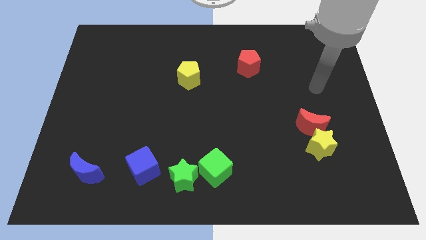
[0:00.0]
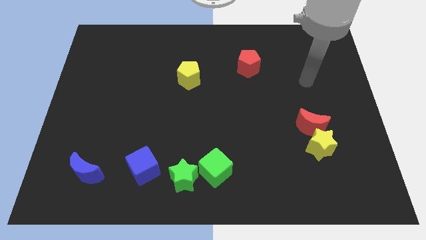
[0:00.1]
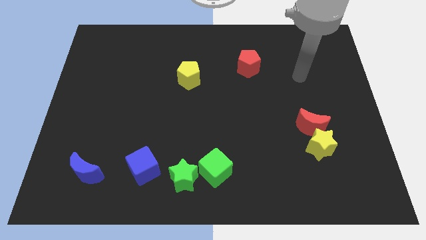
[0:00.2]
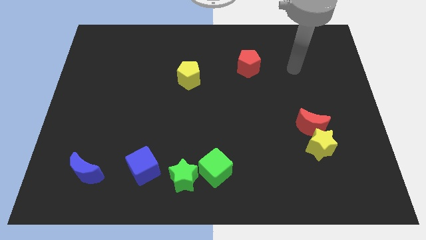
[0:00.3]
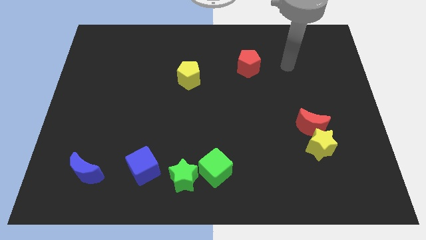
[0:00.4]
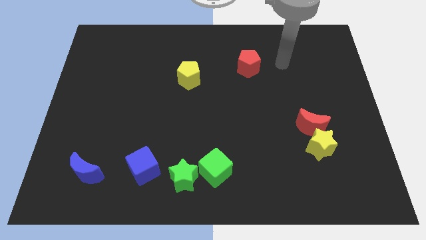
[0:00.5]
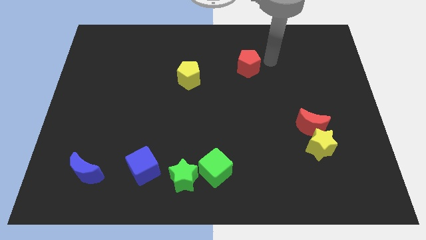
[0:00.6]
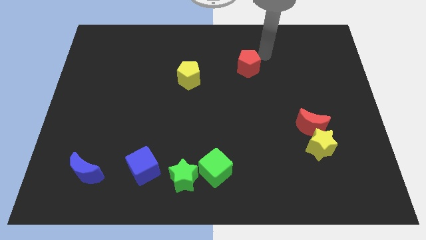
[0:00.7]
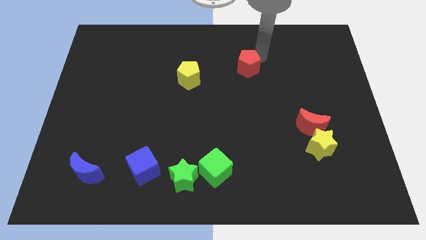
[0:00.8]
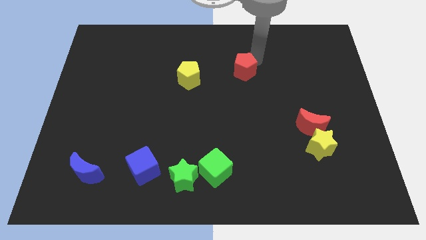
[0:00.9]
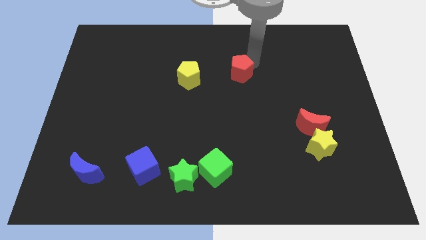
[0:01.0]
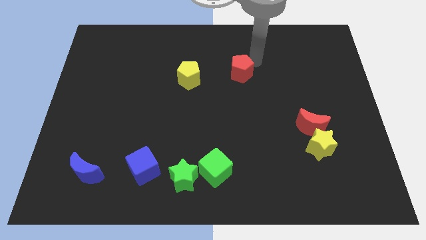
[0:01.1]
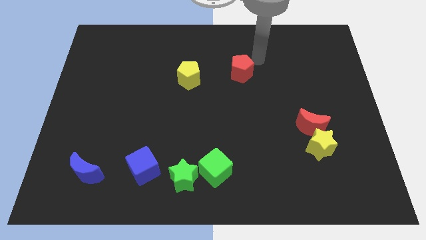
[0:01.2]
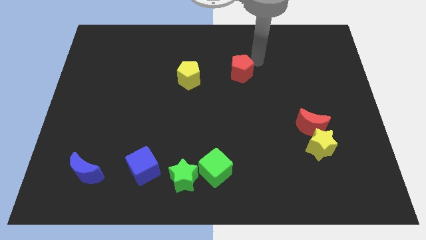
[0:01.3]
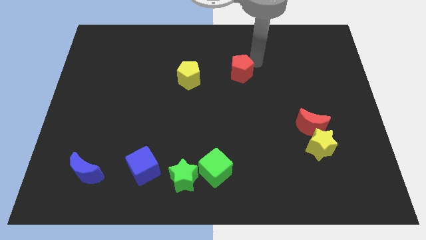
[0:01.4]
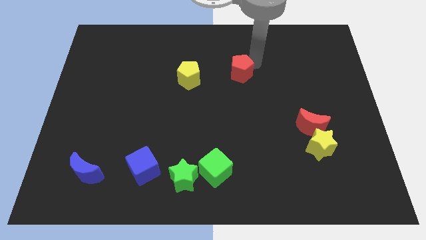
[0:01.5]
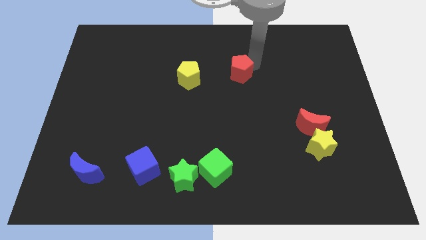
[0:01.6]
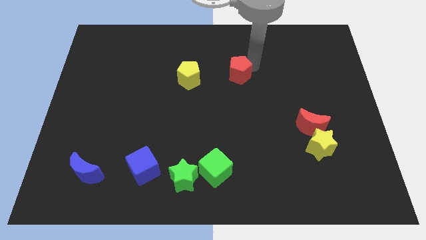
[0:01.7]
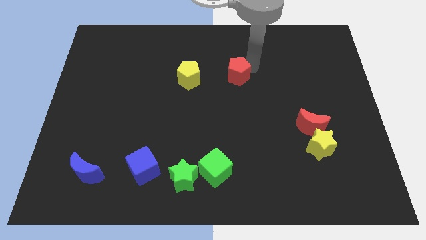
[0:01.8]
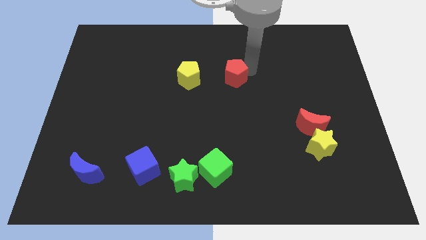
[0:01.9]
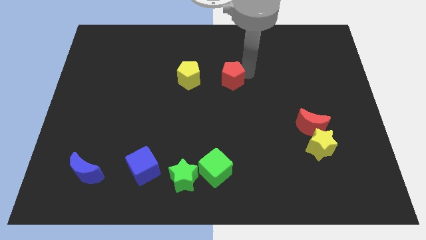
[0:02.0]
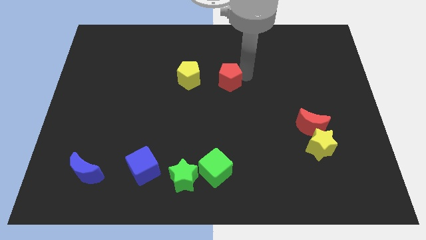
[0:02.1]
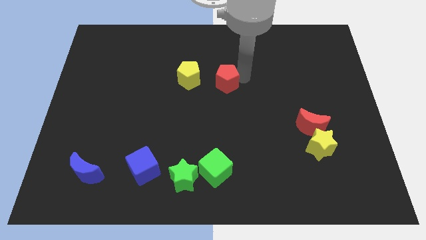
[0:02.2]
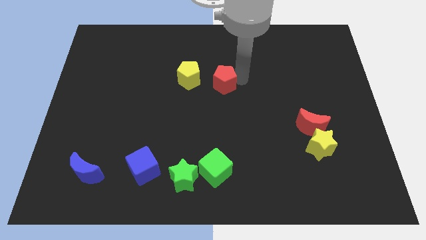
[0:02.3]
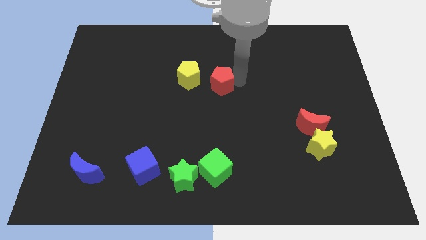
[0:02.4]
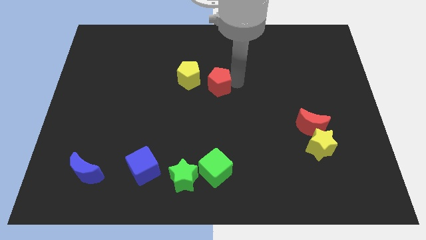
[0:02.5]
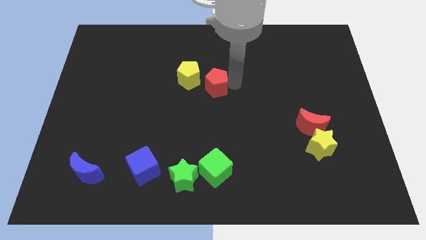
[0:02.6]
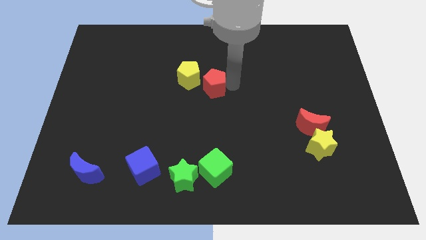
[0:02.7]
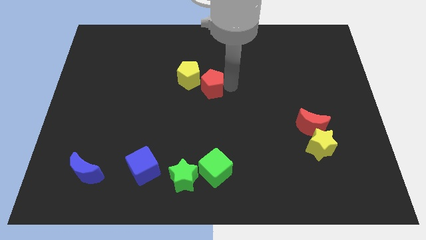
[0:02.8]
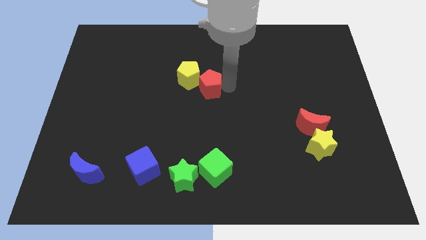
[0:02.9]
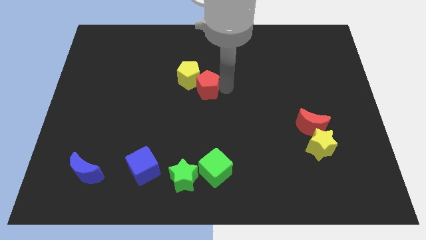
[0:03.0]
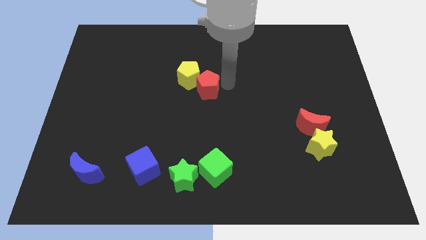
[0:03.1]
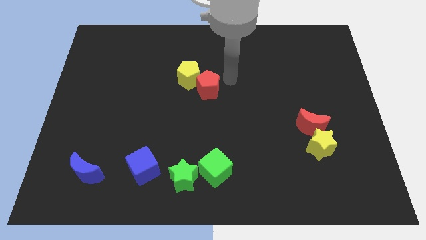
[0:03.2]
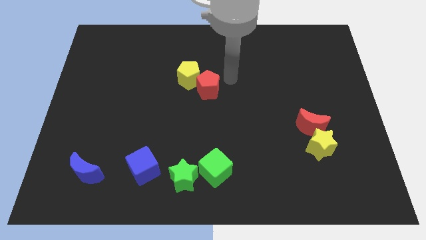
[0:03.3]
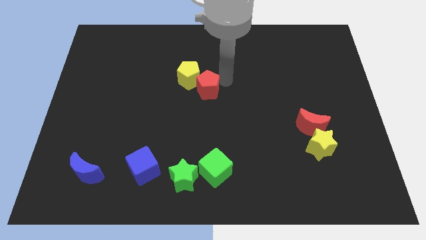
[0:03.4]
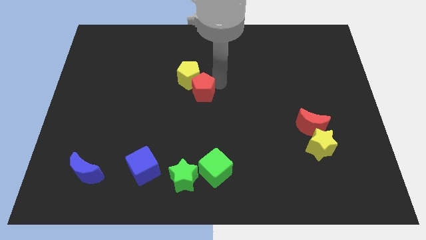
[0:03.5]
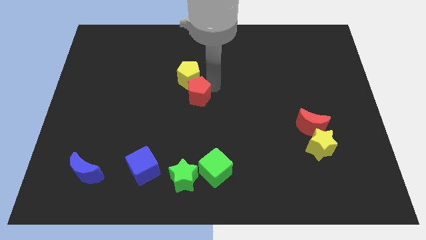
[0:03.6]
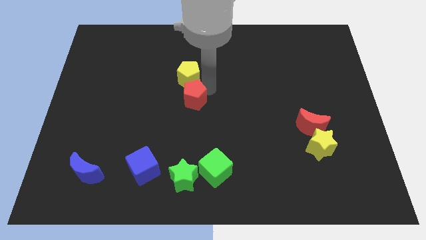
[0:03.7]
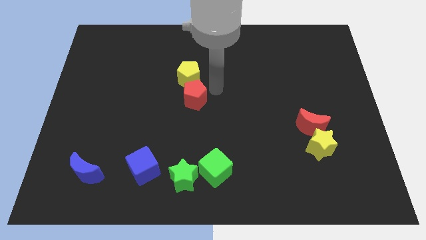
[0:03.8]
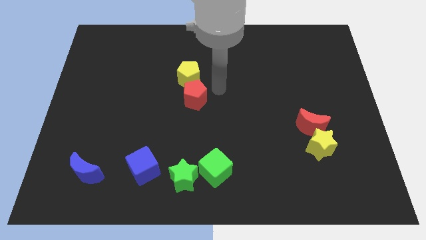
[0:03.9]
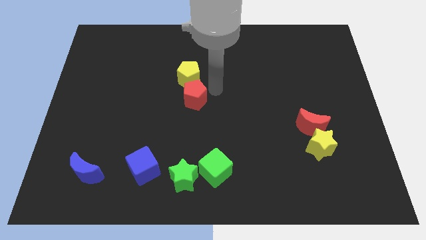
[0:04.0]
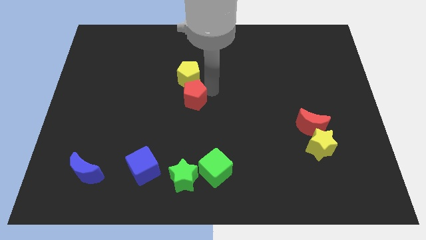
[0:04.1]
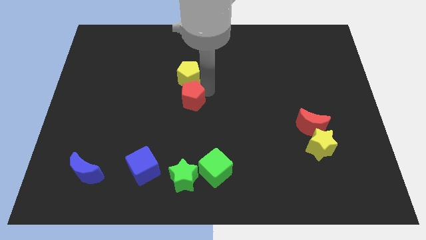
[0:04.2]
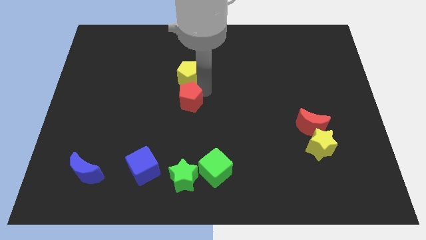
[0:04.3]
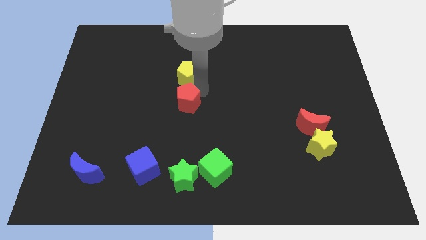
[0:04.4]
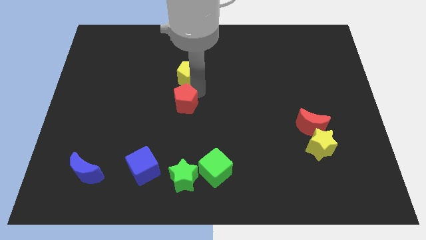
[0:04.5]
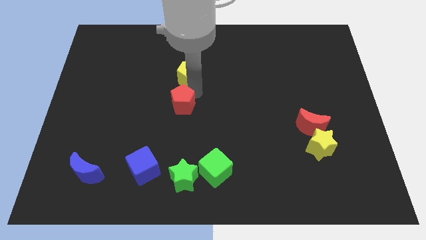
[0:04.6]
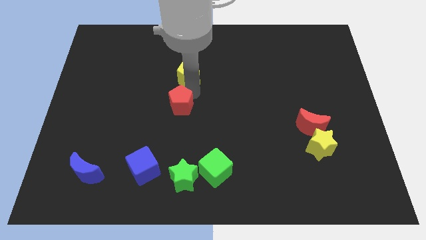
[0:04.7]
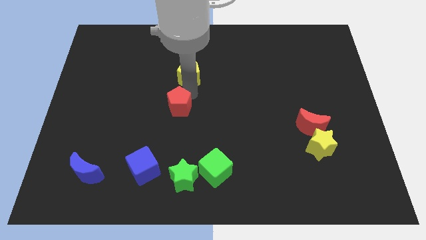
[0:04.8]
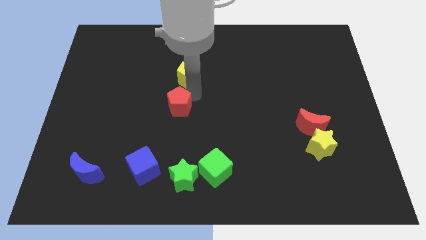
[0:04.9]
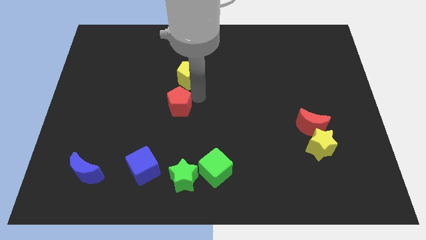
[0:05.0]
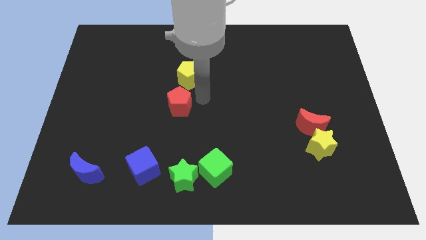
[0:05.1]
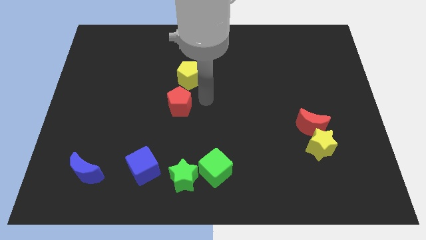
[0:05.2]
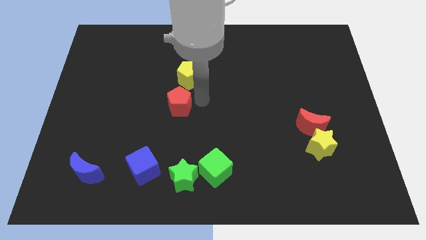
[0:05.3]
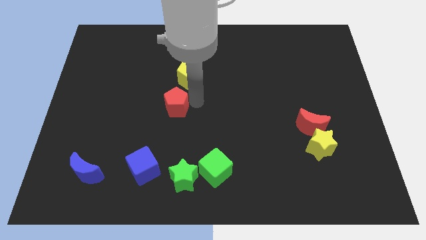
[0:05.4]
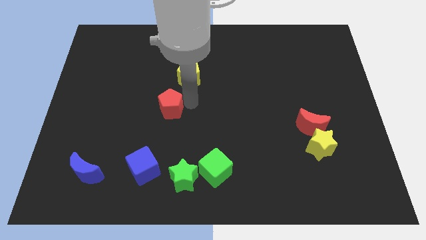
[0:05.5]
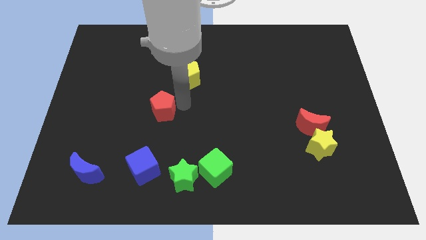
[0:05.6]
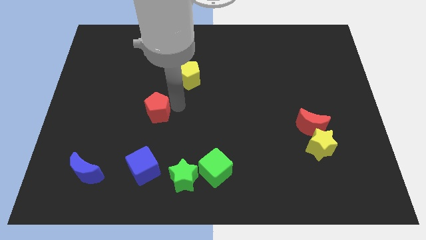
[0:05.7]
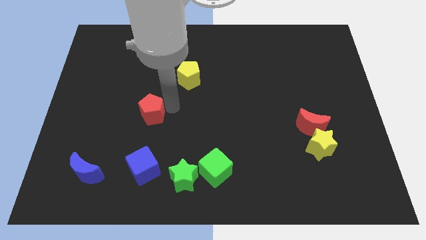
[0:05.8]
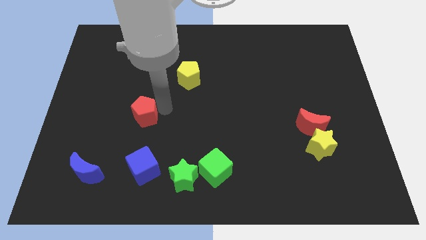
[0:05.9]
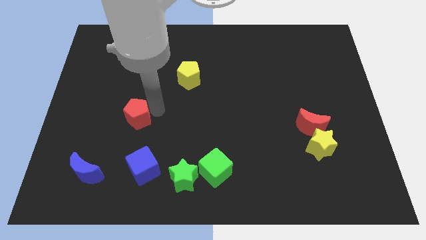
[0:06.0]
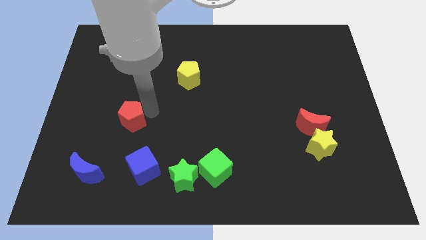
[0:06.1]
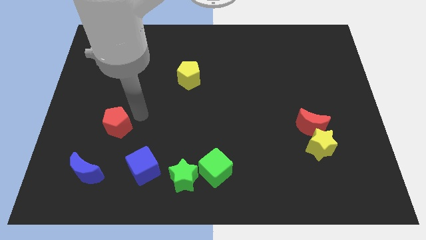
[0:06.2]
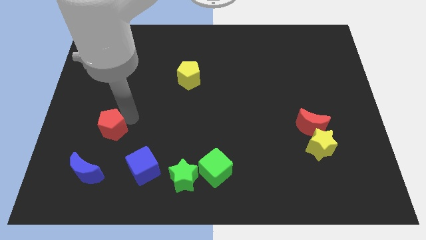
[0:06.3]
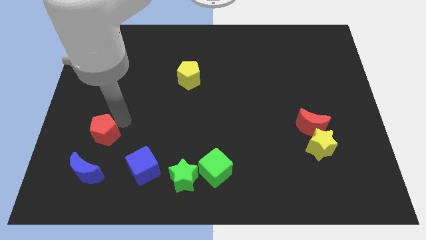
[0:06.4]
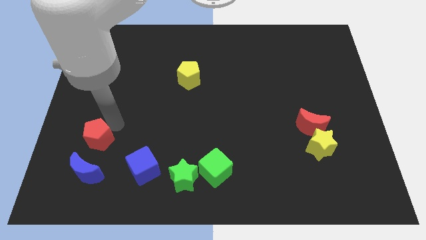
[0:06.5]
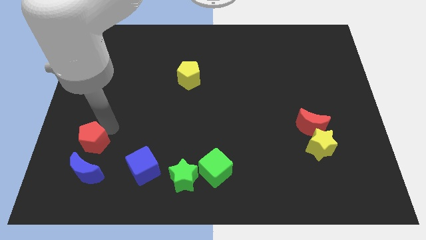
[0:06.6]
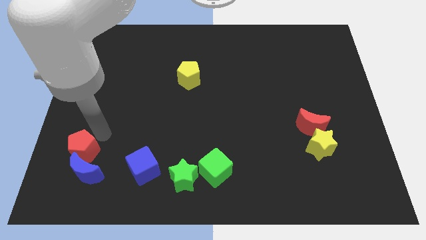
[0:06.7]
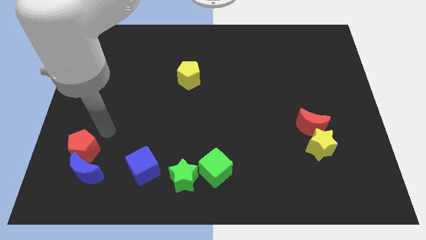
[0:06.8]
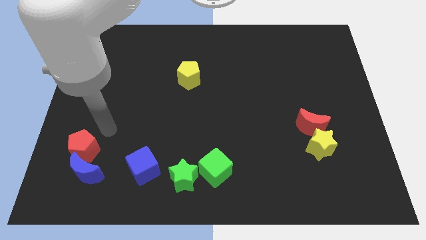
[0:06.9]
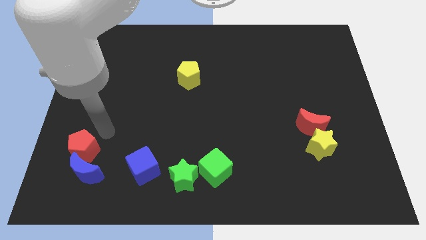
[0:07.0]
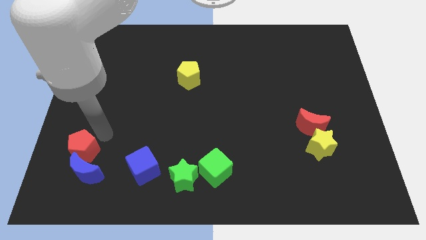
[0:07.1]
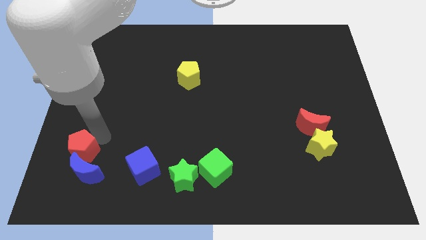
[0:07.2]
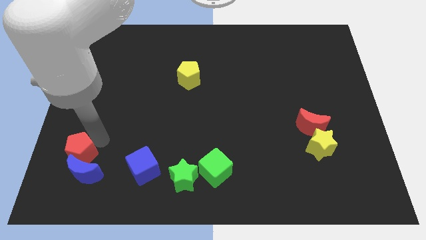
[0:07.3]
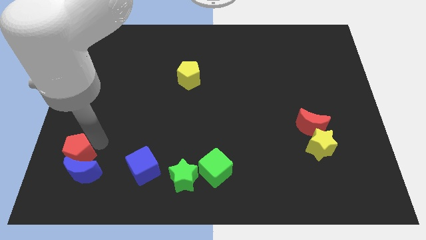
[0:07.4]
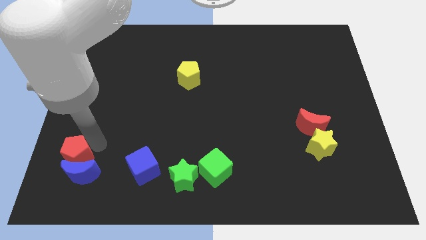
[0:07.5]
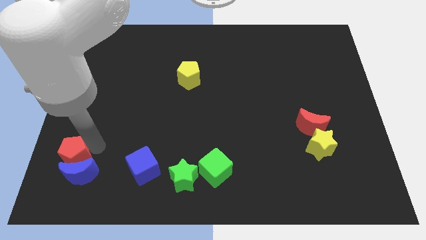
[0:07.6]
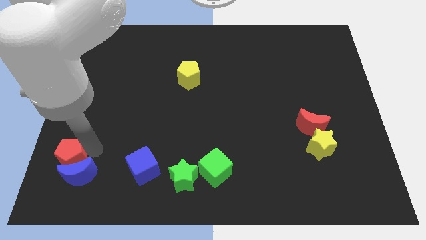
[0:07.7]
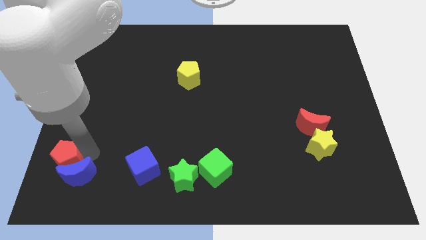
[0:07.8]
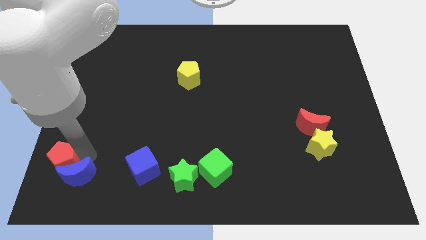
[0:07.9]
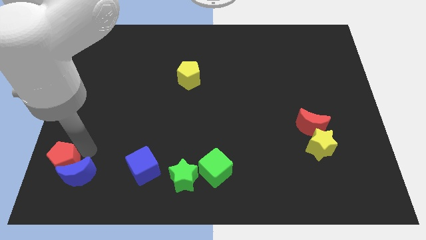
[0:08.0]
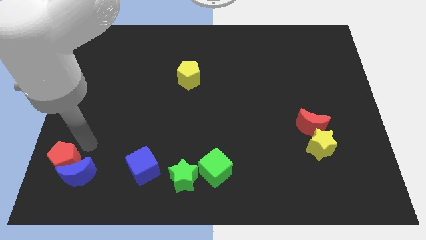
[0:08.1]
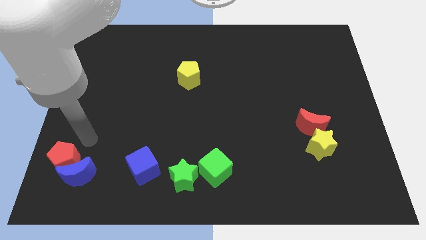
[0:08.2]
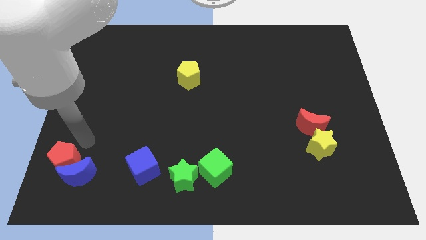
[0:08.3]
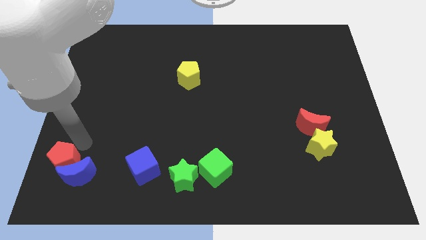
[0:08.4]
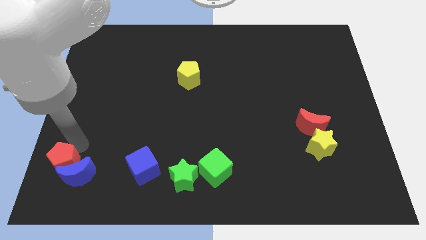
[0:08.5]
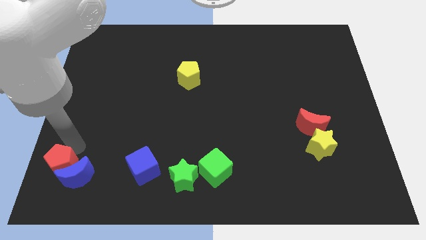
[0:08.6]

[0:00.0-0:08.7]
move the red pentagon to the bottom left of the board
